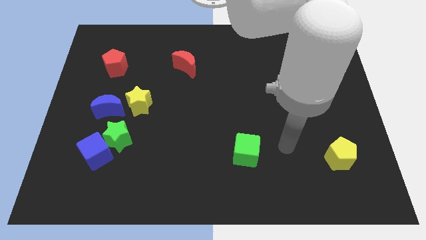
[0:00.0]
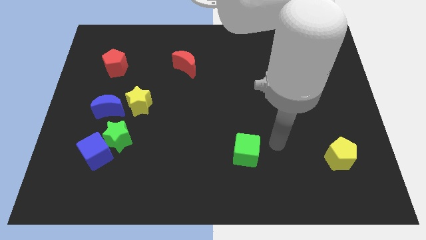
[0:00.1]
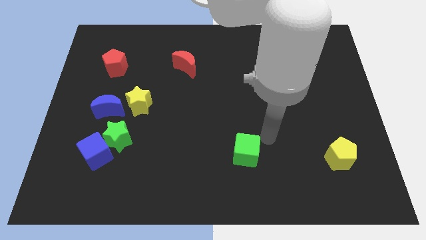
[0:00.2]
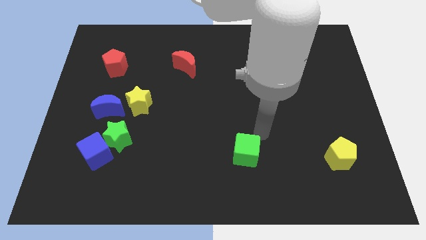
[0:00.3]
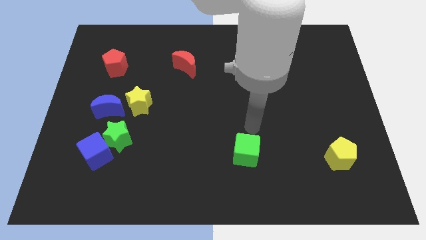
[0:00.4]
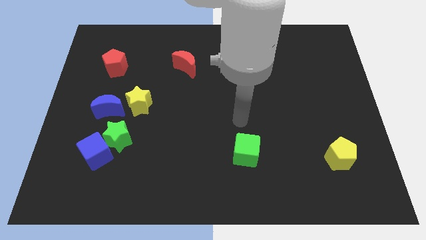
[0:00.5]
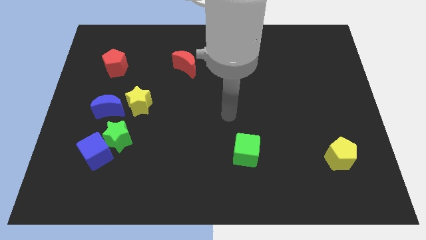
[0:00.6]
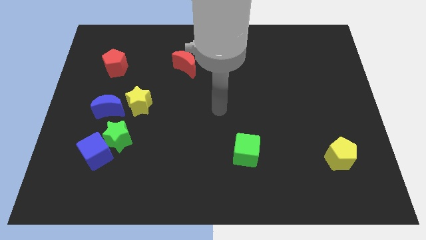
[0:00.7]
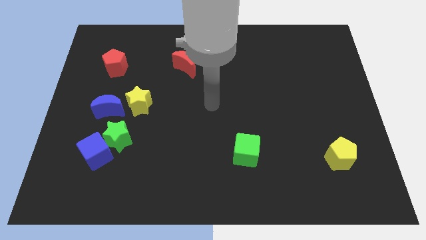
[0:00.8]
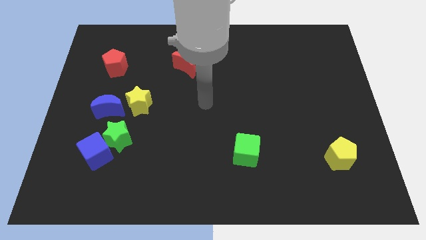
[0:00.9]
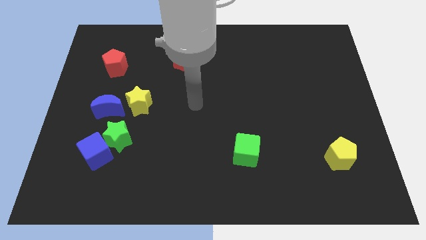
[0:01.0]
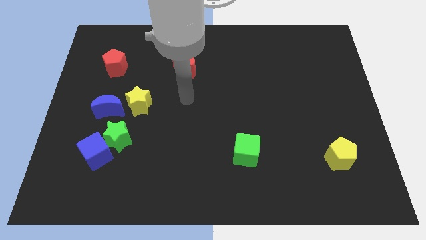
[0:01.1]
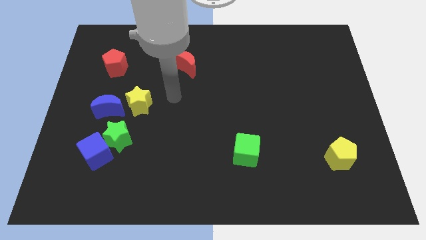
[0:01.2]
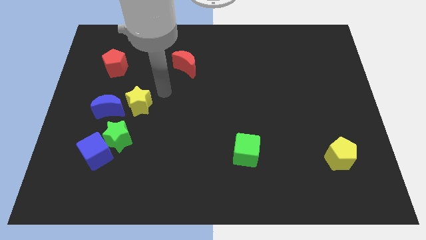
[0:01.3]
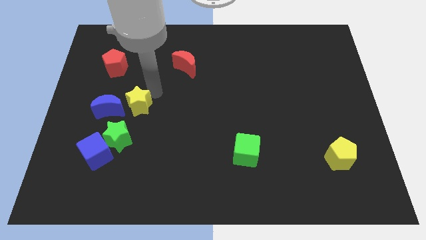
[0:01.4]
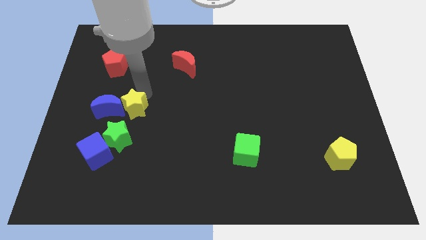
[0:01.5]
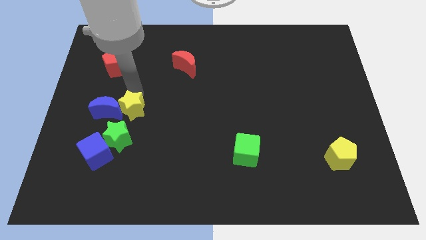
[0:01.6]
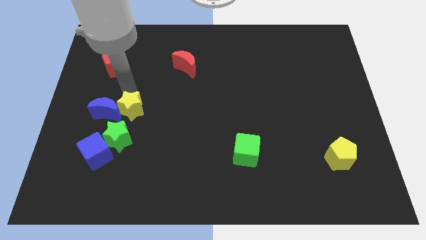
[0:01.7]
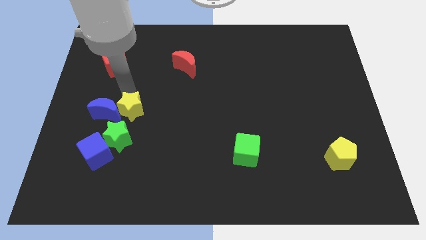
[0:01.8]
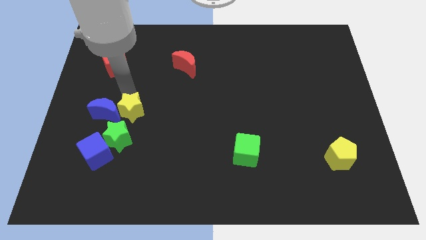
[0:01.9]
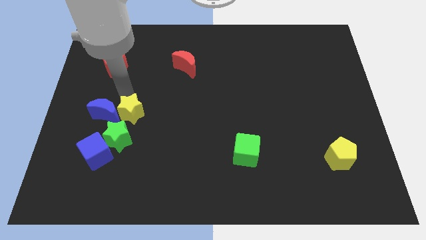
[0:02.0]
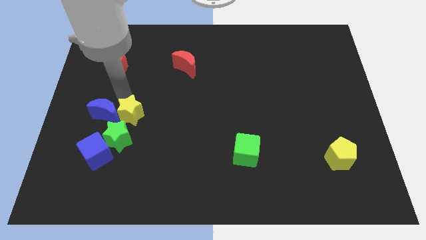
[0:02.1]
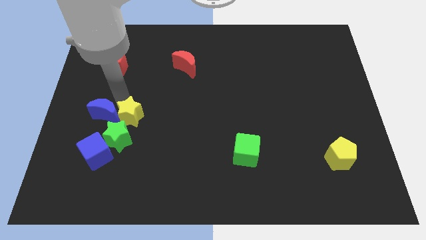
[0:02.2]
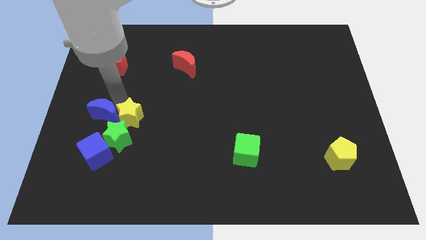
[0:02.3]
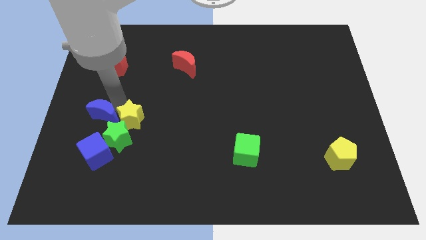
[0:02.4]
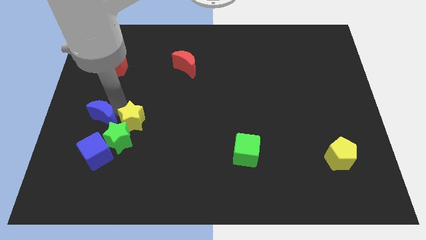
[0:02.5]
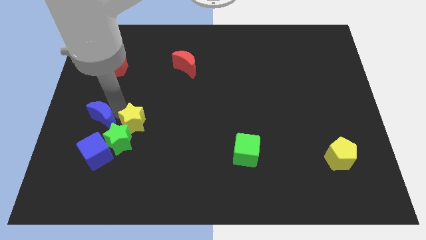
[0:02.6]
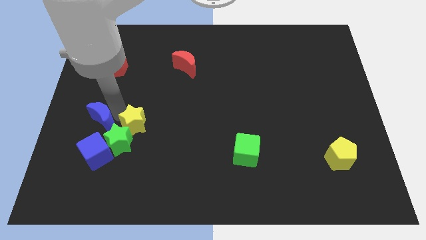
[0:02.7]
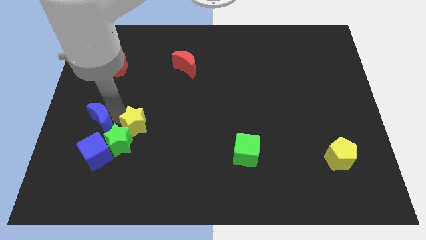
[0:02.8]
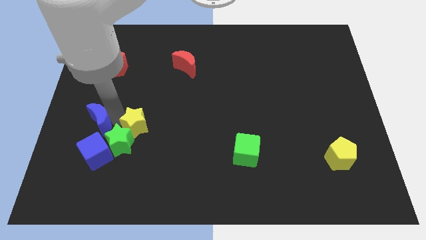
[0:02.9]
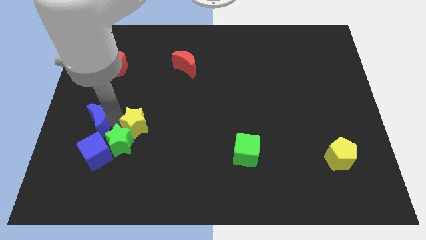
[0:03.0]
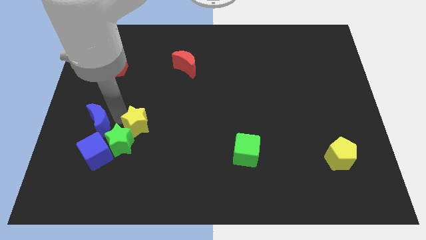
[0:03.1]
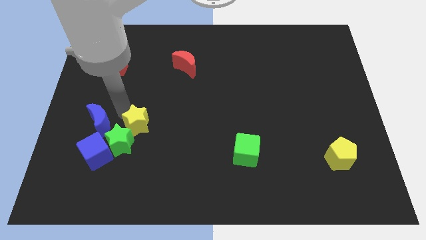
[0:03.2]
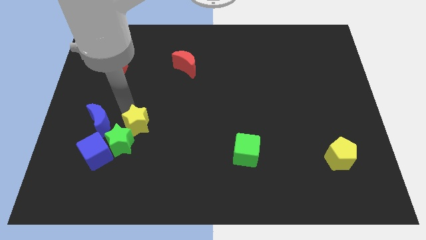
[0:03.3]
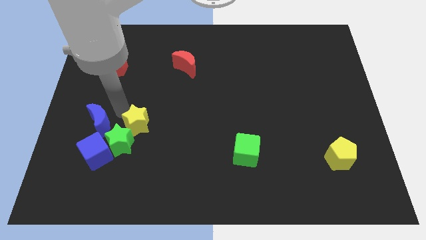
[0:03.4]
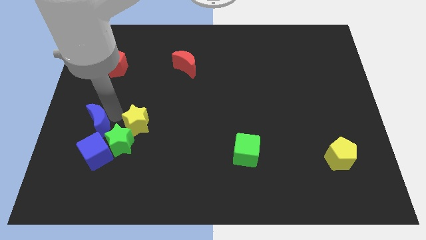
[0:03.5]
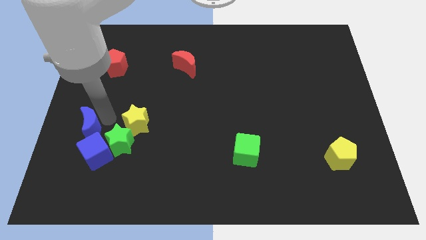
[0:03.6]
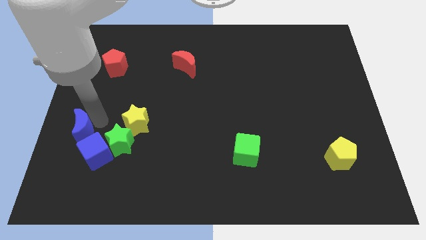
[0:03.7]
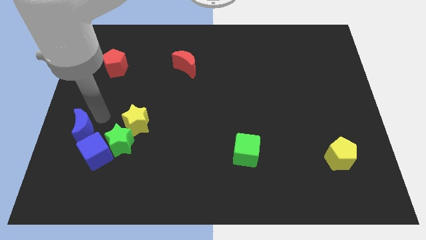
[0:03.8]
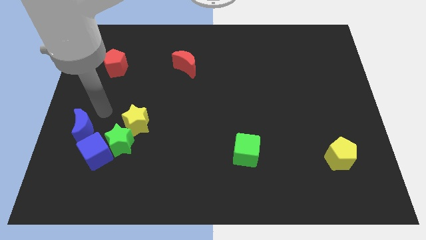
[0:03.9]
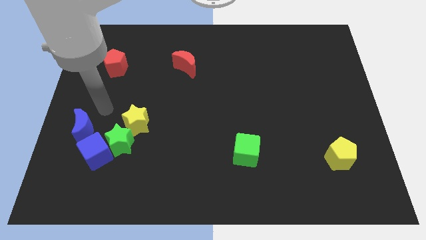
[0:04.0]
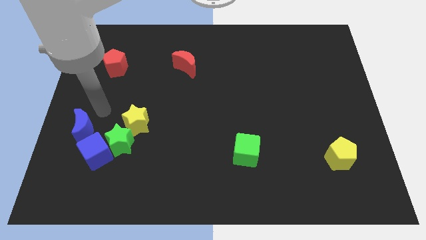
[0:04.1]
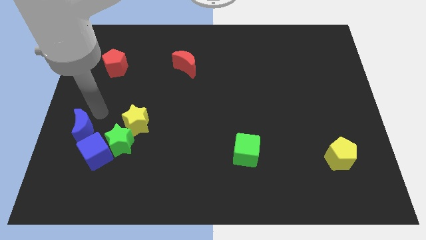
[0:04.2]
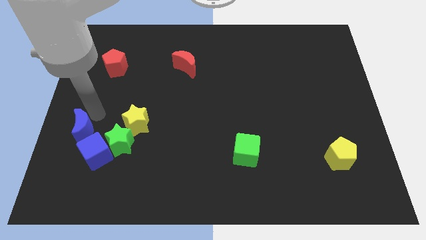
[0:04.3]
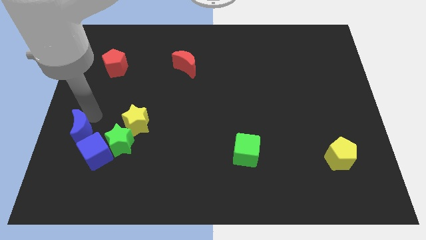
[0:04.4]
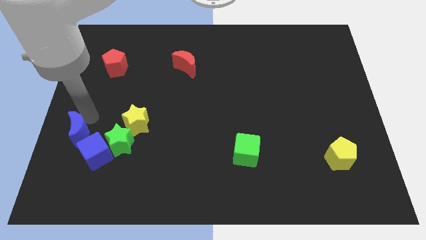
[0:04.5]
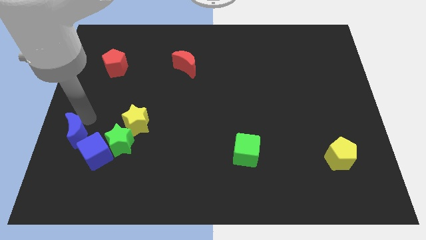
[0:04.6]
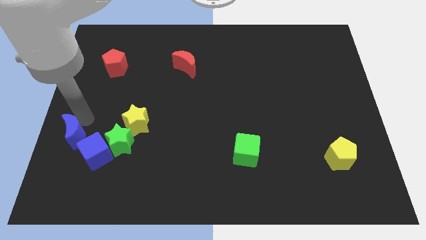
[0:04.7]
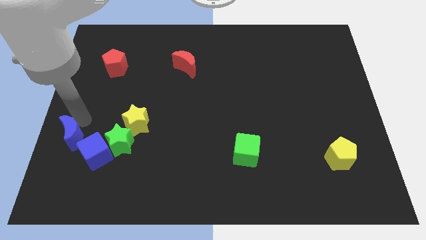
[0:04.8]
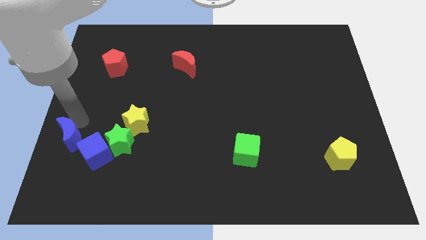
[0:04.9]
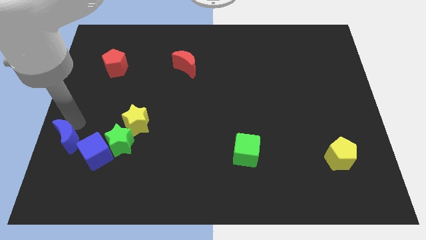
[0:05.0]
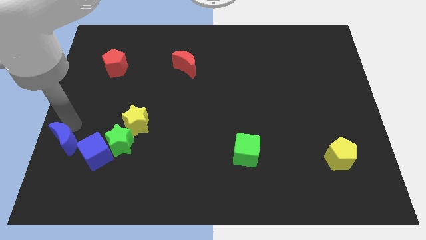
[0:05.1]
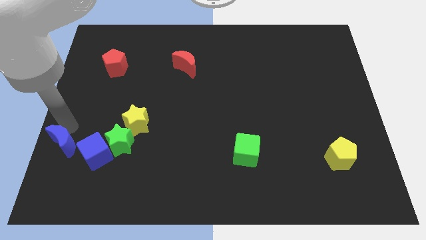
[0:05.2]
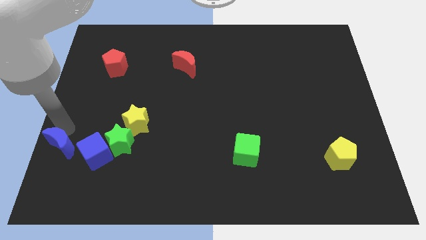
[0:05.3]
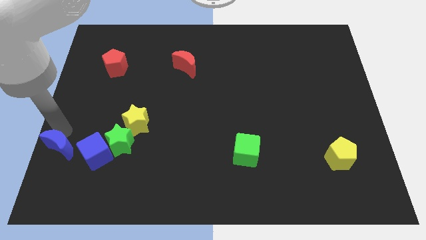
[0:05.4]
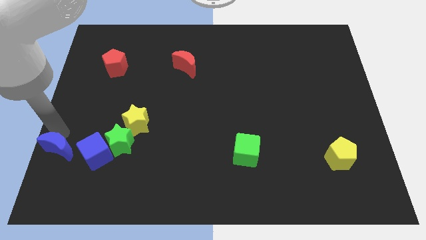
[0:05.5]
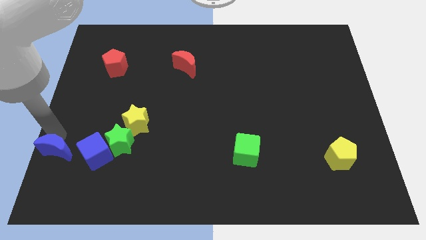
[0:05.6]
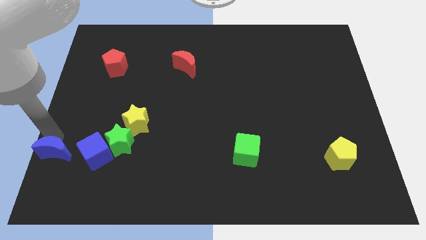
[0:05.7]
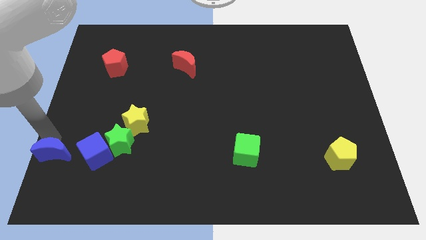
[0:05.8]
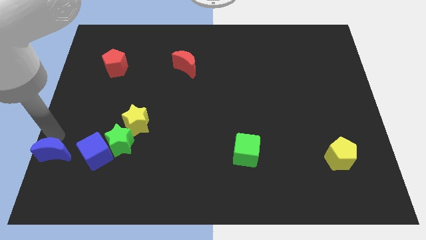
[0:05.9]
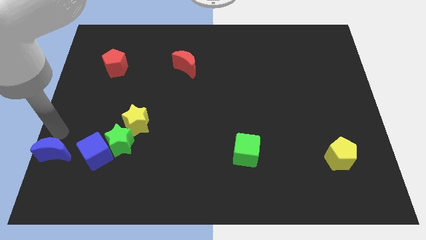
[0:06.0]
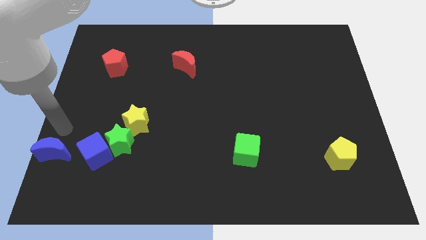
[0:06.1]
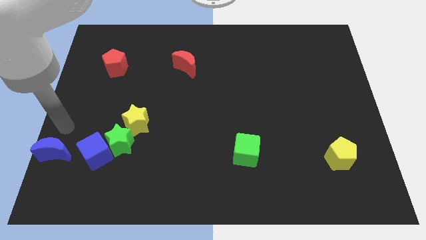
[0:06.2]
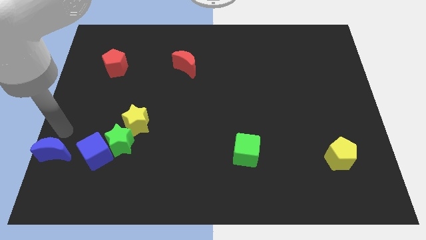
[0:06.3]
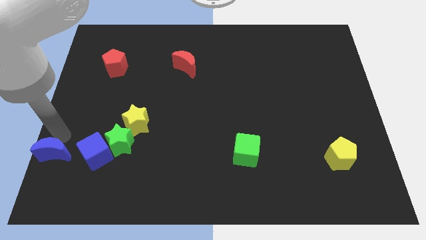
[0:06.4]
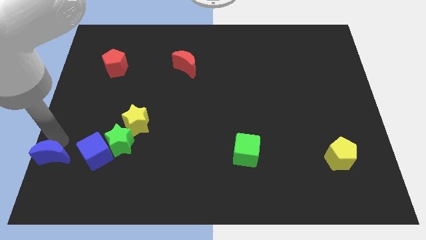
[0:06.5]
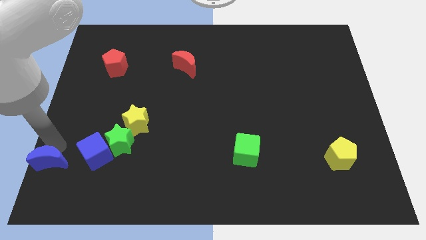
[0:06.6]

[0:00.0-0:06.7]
slide the blue moon to the bottom left
